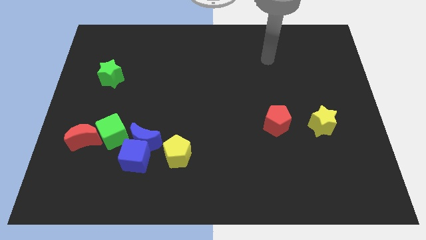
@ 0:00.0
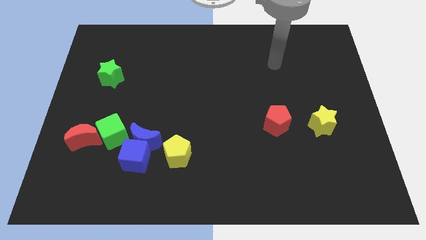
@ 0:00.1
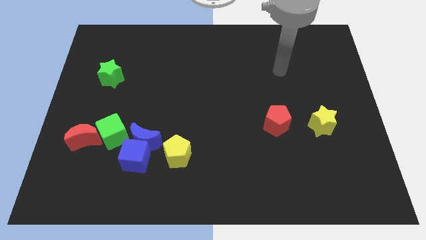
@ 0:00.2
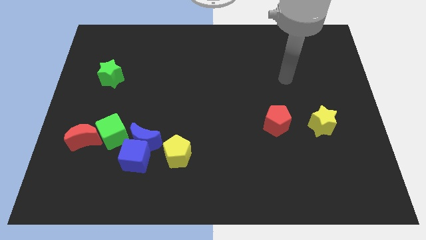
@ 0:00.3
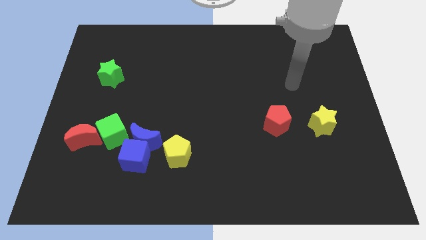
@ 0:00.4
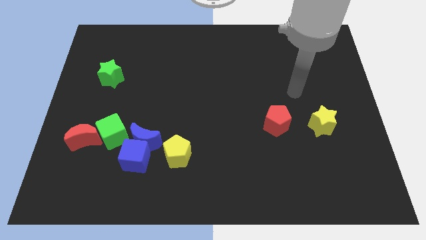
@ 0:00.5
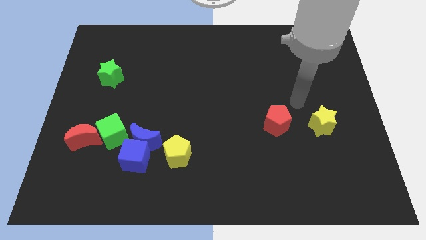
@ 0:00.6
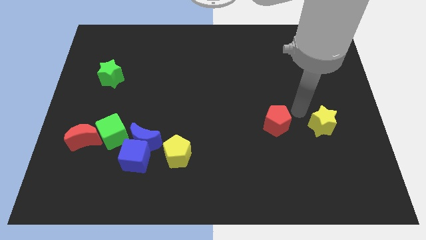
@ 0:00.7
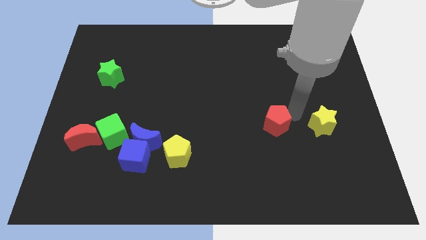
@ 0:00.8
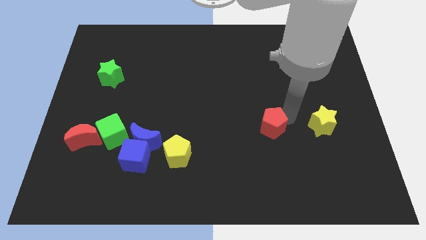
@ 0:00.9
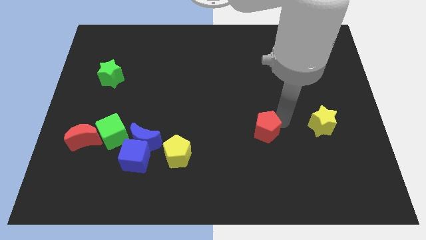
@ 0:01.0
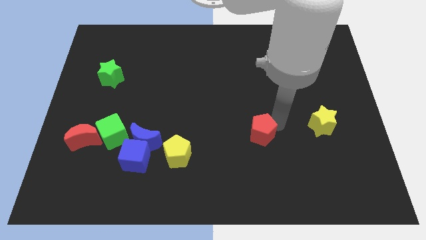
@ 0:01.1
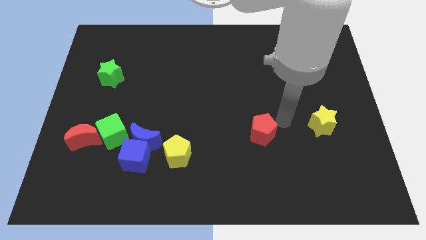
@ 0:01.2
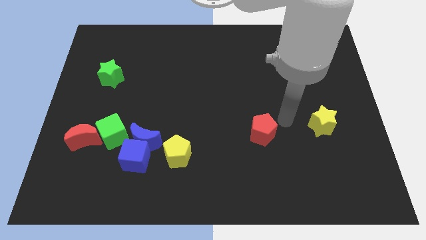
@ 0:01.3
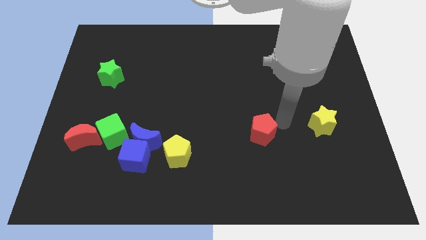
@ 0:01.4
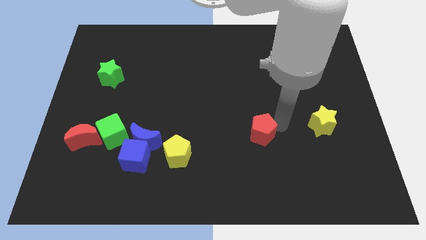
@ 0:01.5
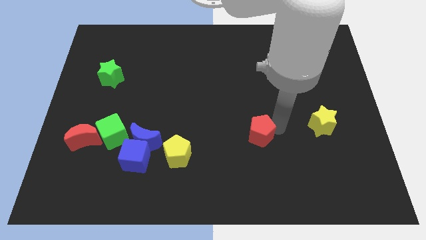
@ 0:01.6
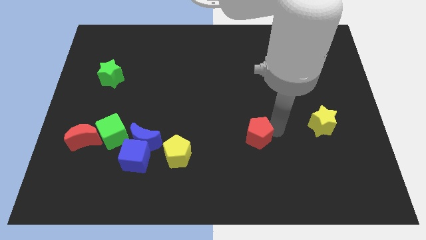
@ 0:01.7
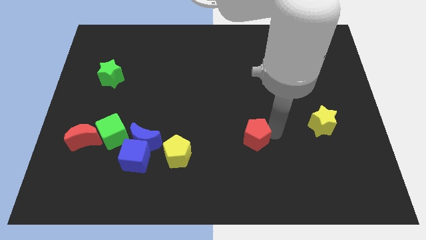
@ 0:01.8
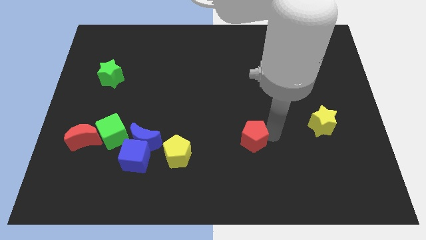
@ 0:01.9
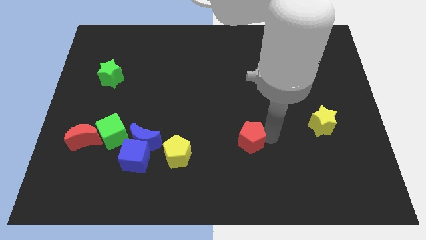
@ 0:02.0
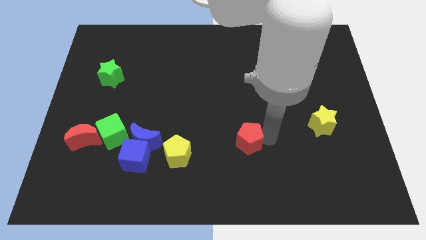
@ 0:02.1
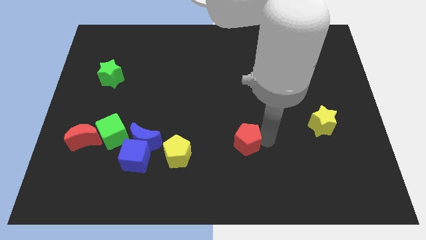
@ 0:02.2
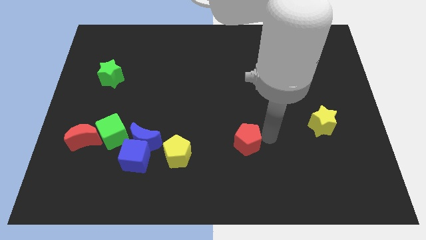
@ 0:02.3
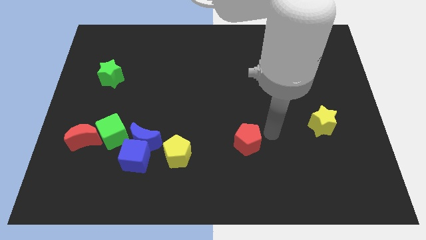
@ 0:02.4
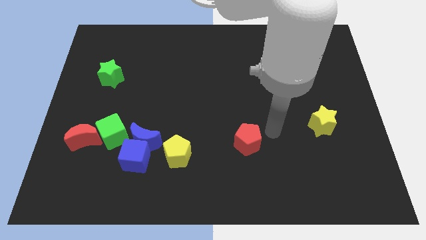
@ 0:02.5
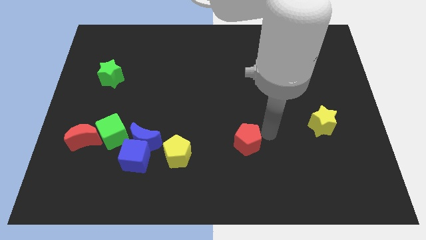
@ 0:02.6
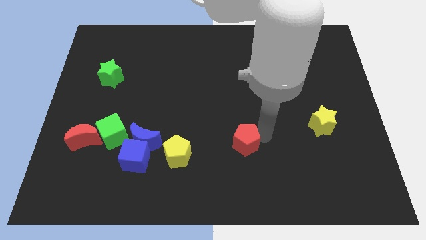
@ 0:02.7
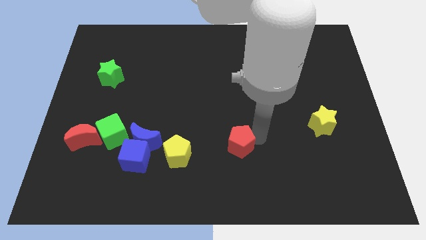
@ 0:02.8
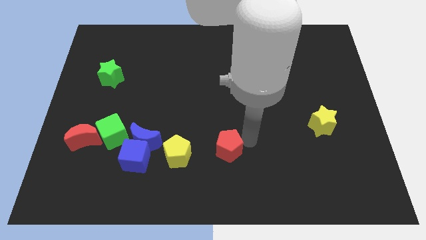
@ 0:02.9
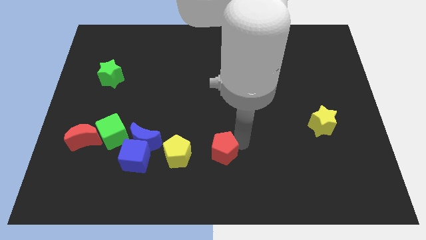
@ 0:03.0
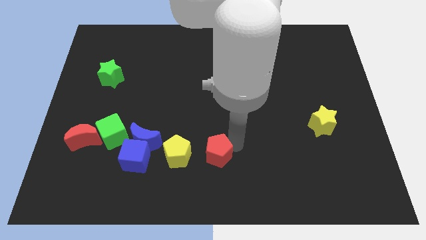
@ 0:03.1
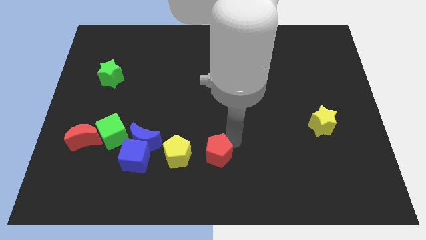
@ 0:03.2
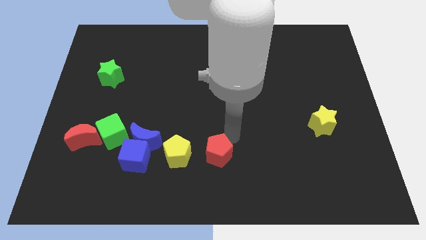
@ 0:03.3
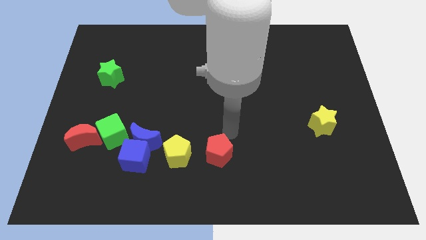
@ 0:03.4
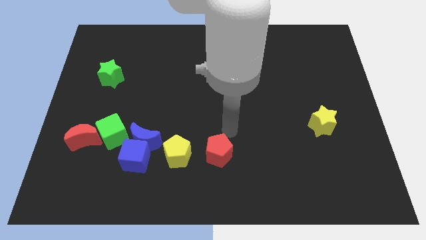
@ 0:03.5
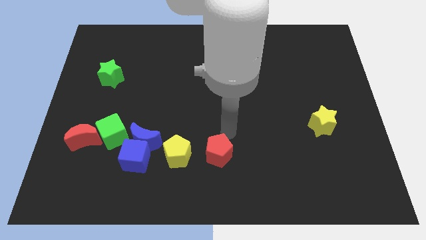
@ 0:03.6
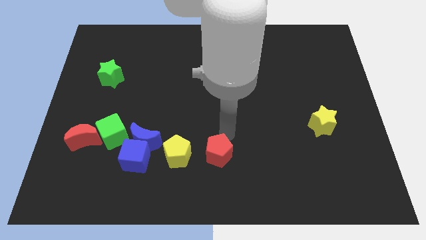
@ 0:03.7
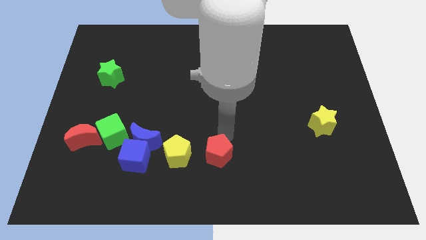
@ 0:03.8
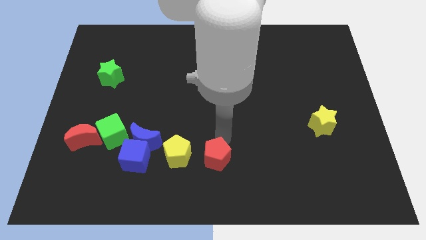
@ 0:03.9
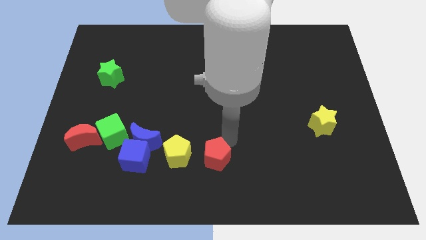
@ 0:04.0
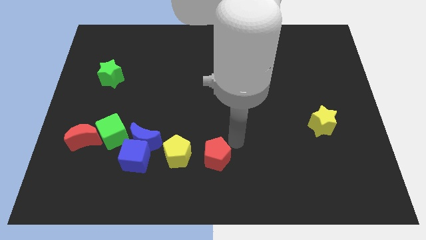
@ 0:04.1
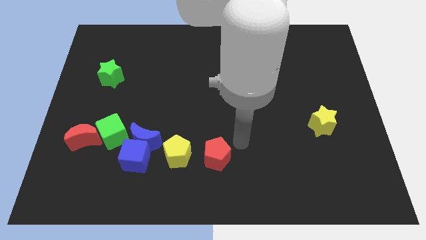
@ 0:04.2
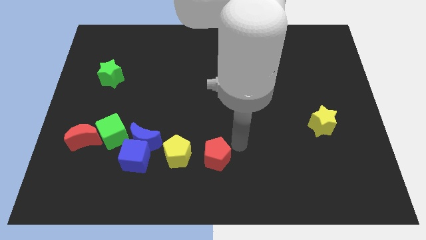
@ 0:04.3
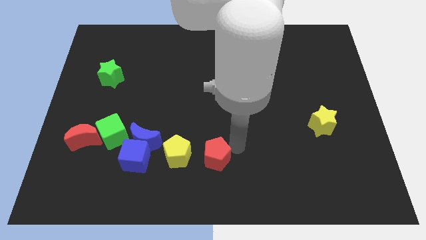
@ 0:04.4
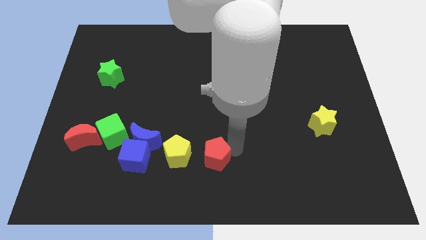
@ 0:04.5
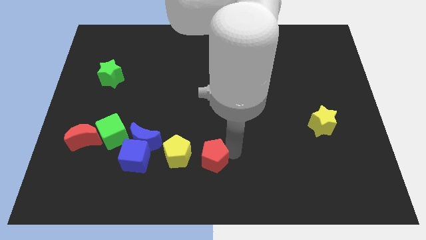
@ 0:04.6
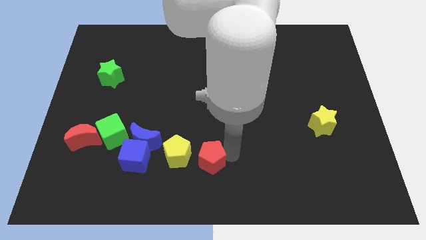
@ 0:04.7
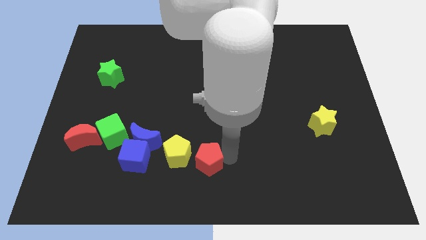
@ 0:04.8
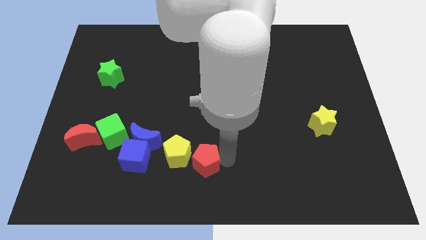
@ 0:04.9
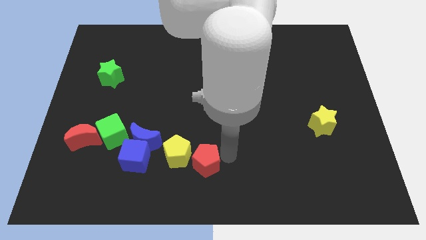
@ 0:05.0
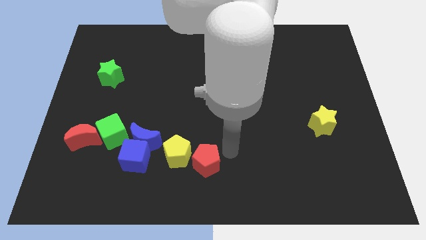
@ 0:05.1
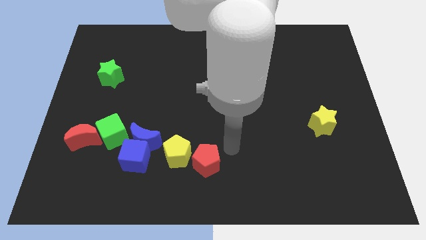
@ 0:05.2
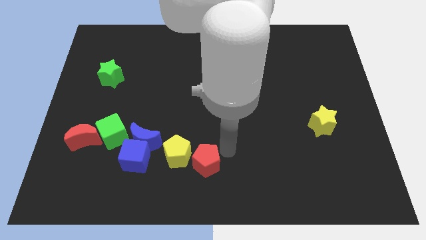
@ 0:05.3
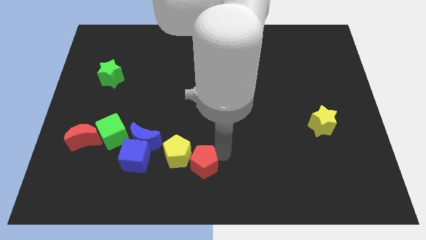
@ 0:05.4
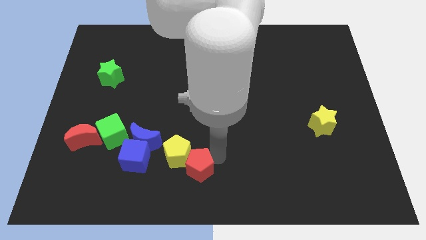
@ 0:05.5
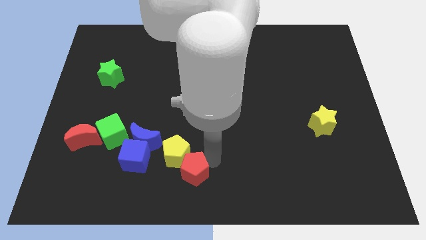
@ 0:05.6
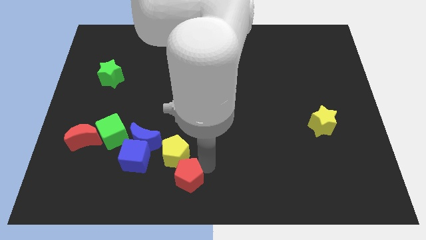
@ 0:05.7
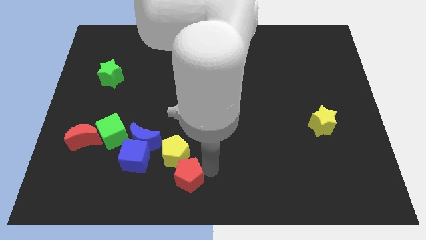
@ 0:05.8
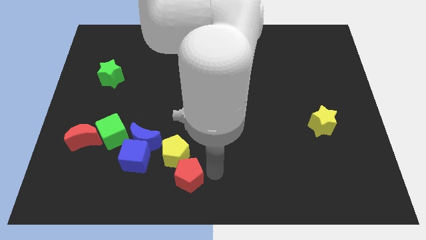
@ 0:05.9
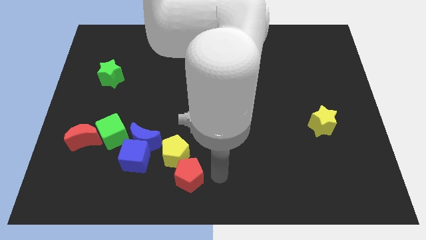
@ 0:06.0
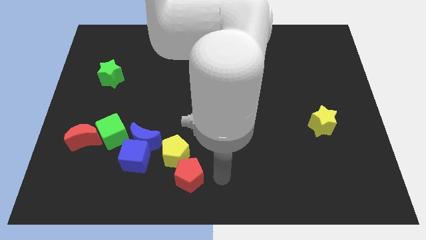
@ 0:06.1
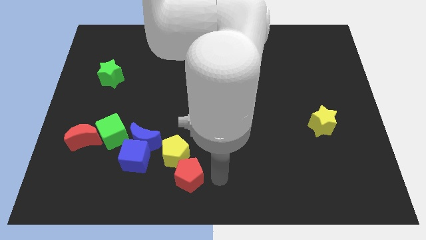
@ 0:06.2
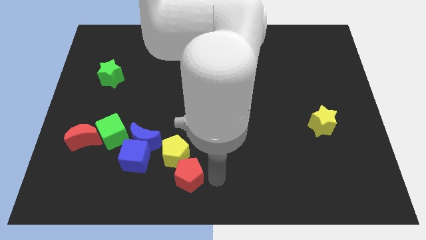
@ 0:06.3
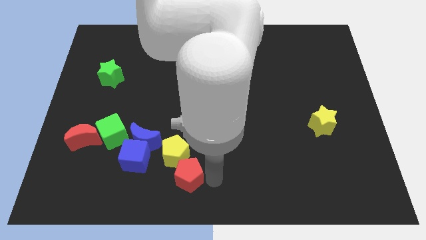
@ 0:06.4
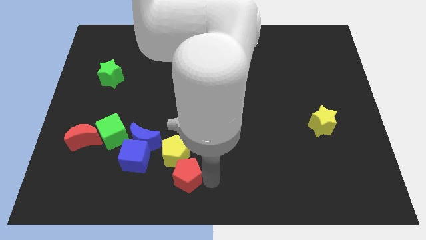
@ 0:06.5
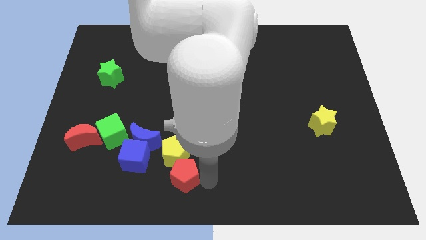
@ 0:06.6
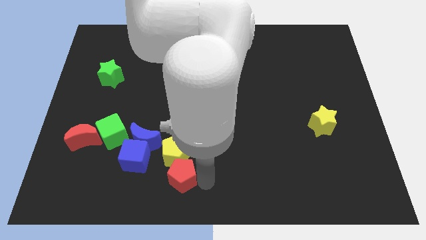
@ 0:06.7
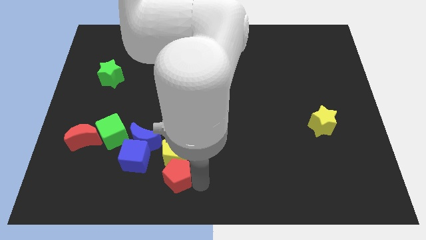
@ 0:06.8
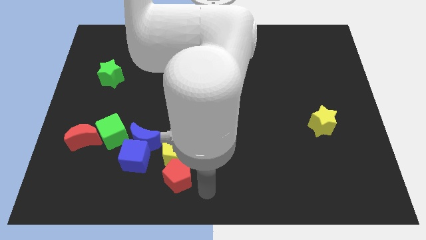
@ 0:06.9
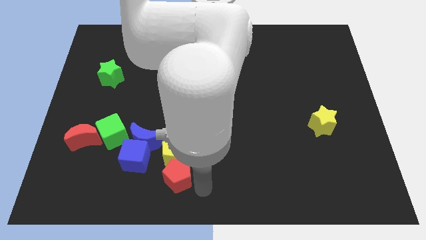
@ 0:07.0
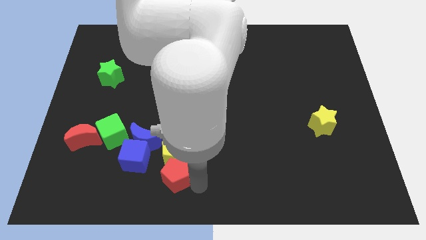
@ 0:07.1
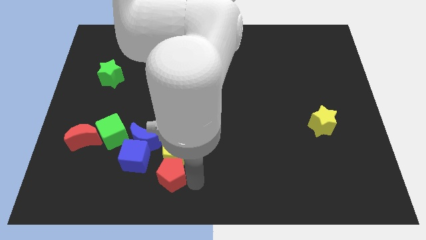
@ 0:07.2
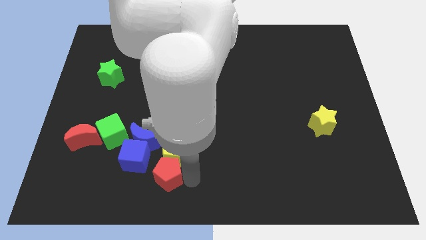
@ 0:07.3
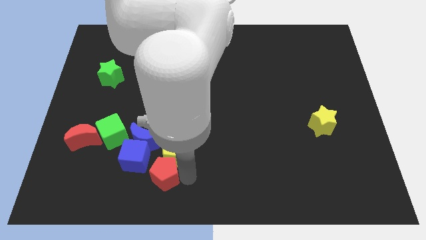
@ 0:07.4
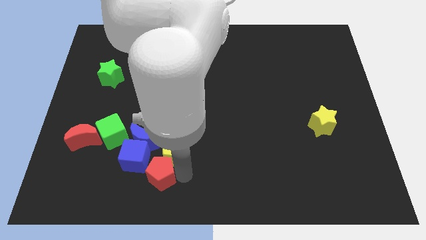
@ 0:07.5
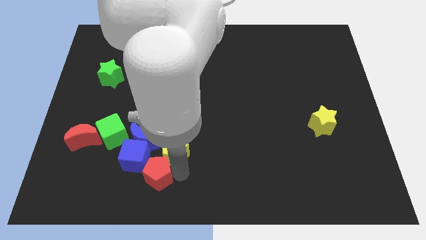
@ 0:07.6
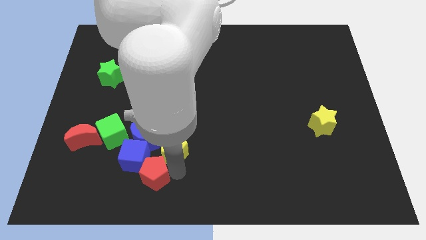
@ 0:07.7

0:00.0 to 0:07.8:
push the red pentagon to the blue cube
